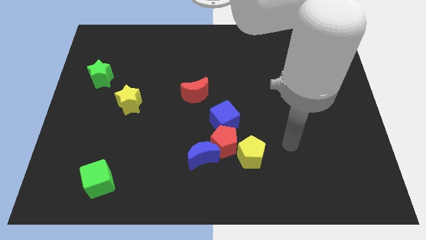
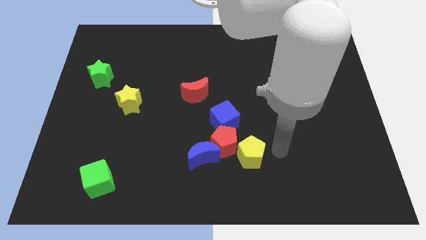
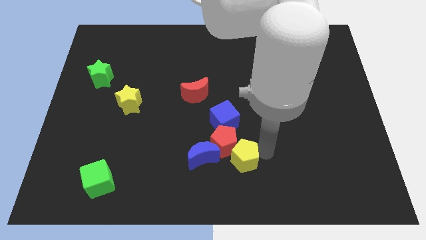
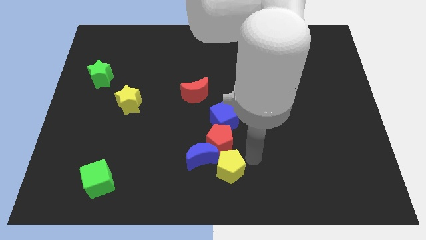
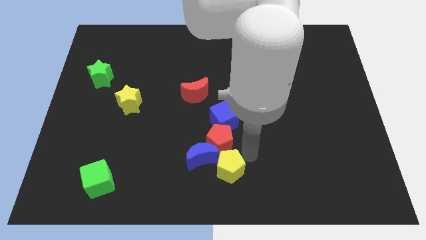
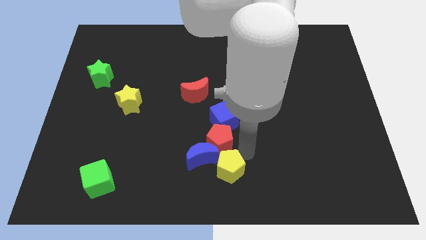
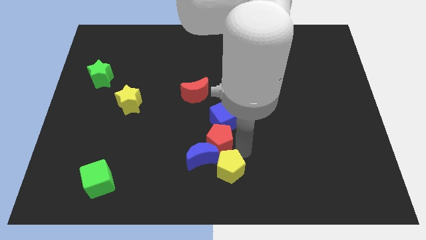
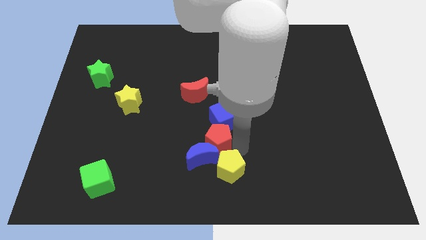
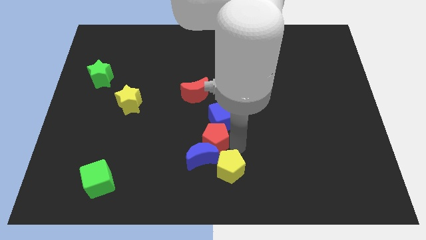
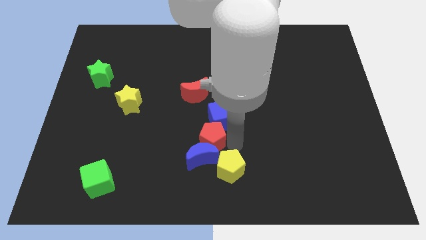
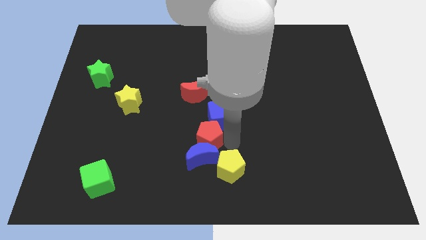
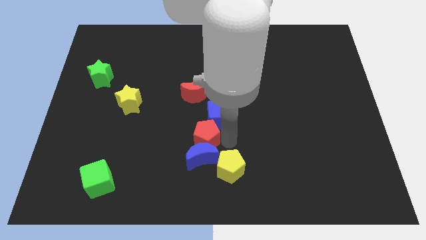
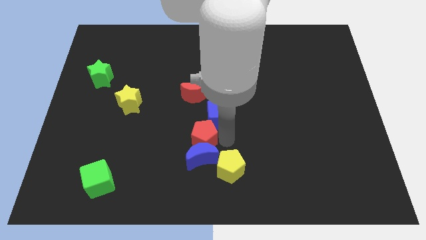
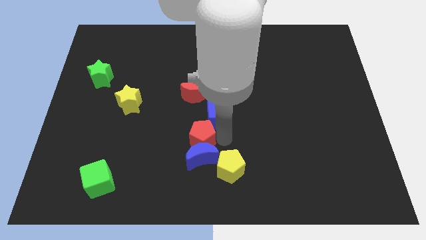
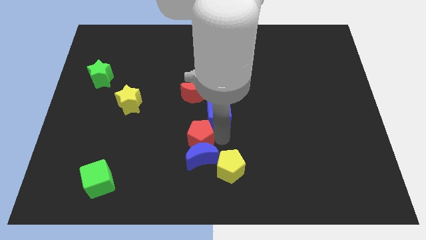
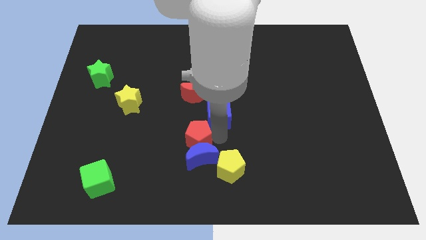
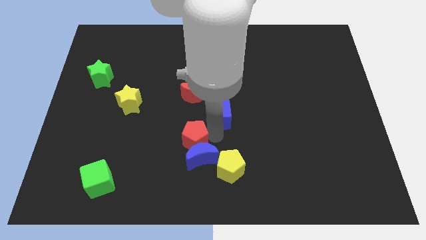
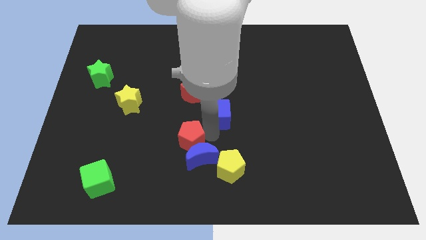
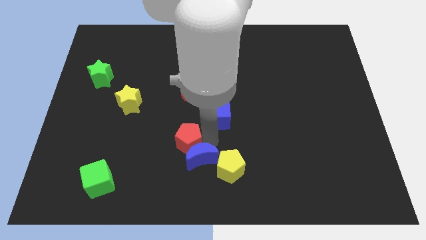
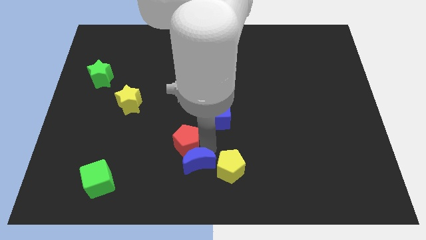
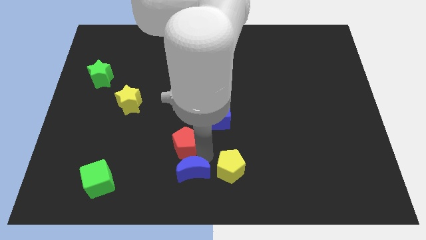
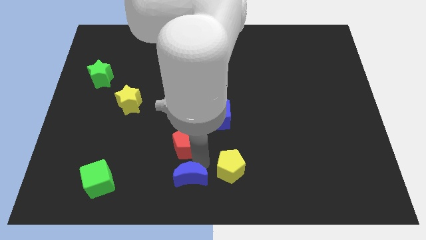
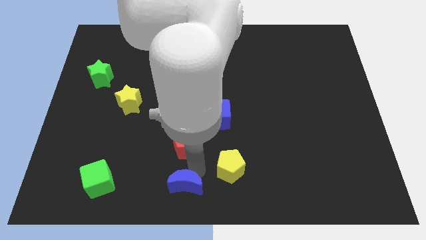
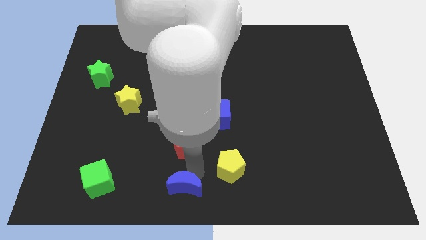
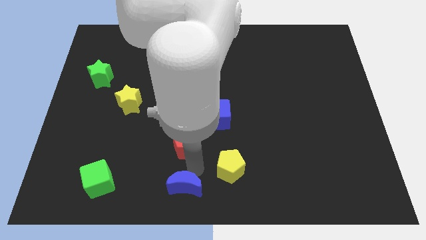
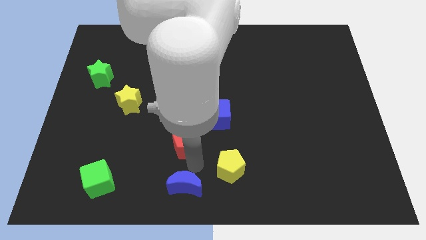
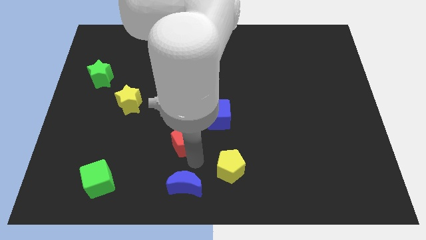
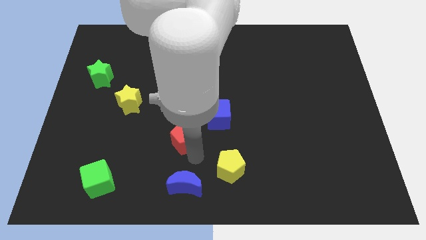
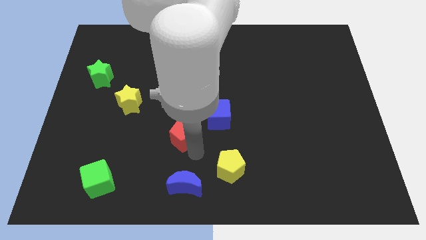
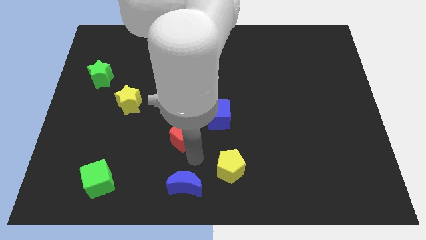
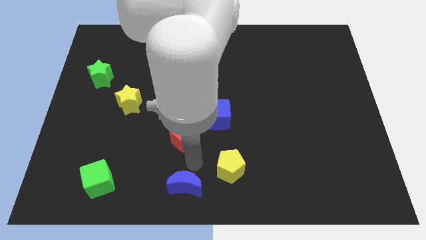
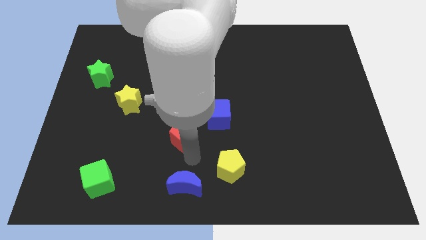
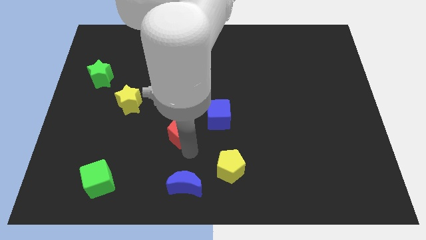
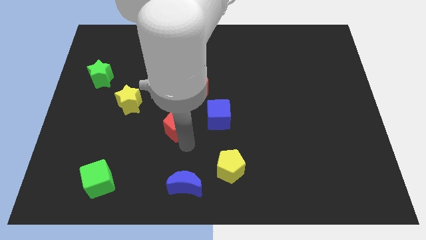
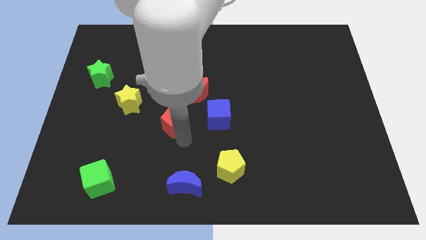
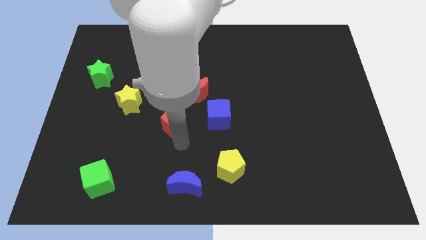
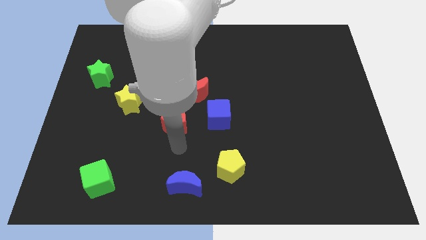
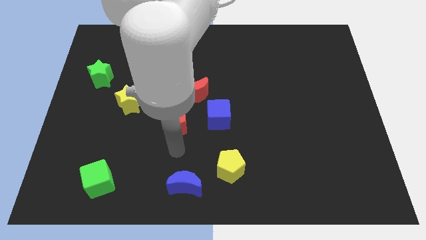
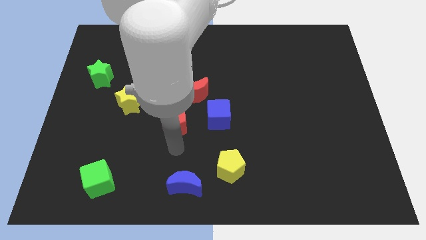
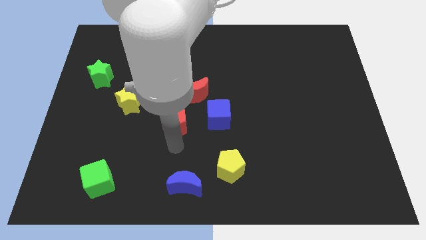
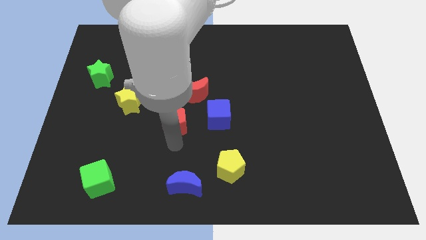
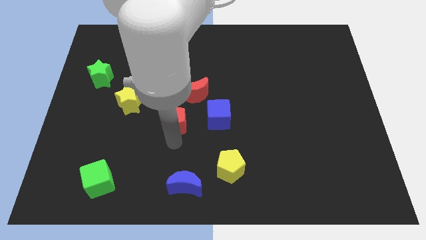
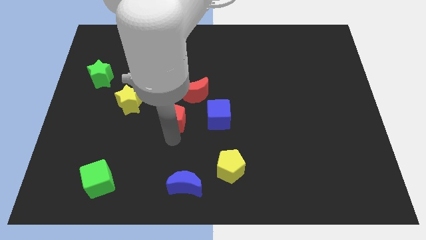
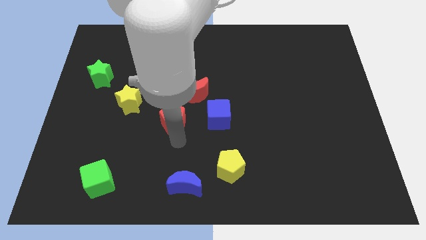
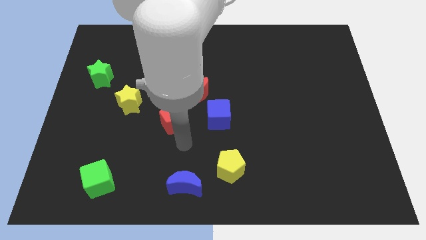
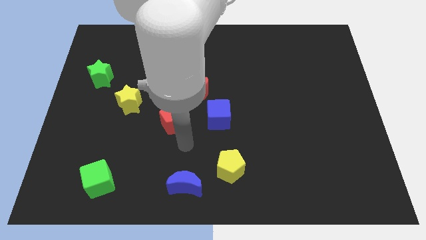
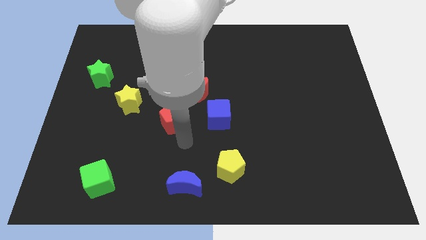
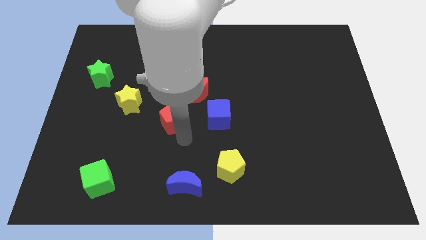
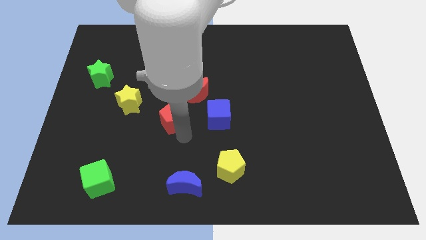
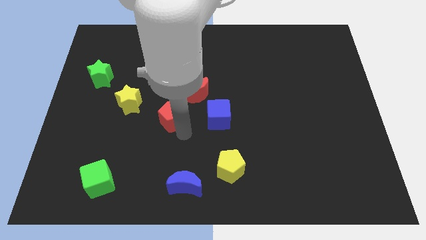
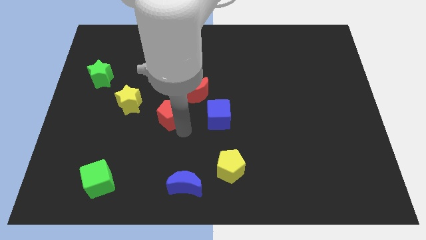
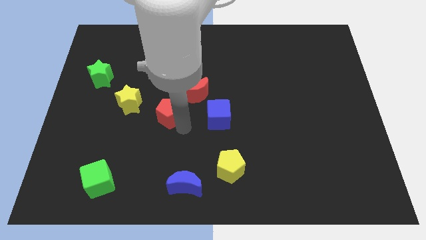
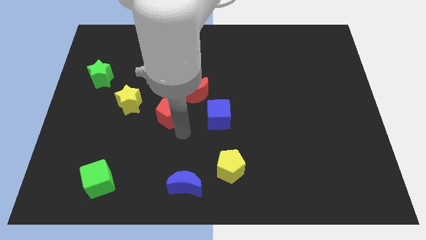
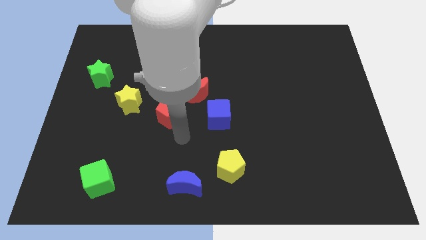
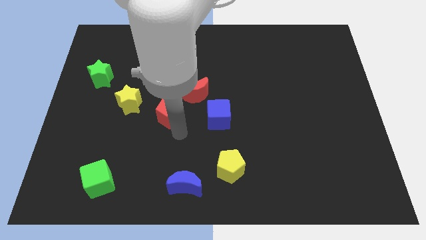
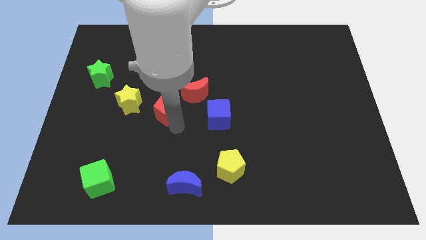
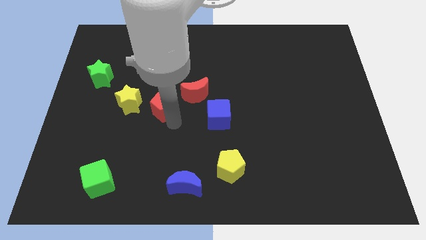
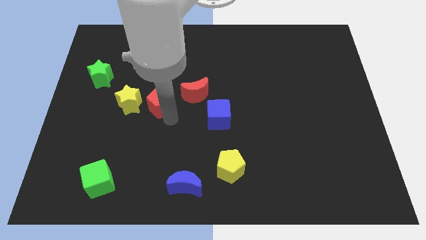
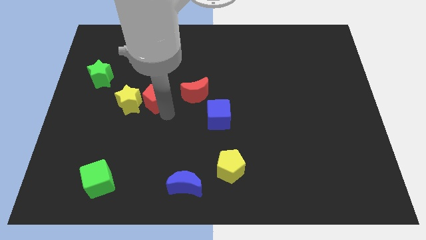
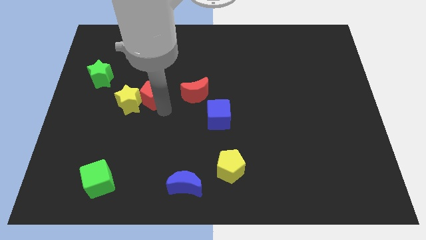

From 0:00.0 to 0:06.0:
push the red pentagon upwards and then left

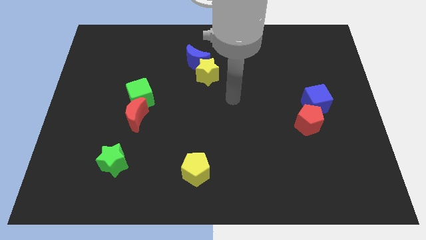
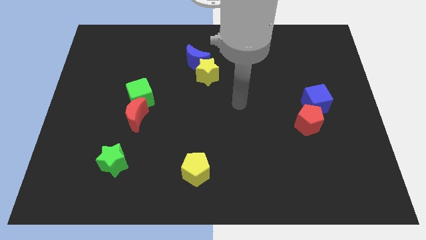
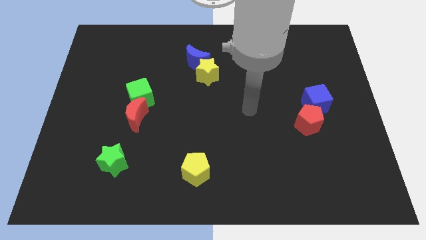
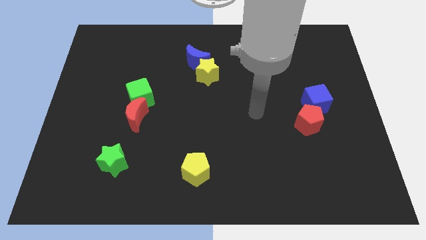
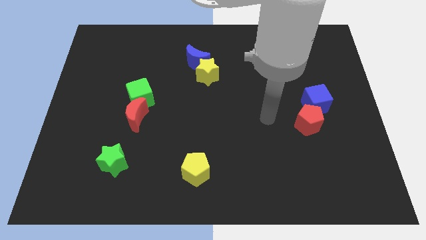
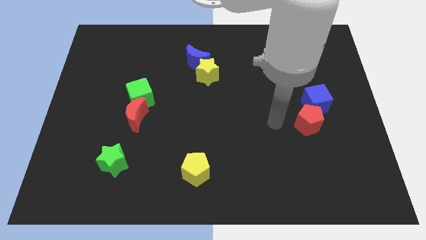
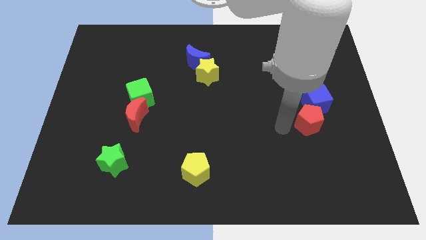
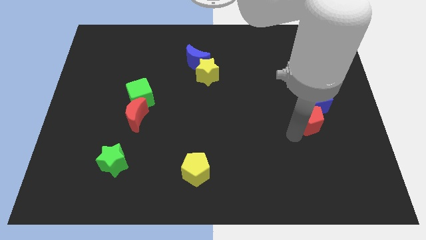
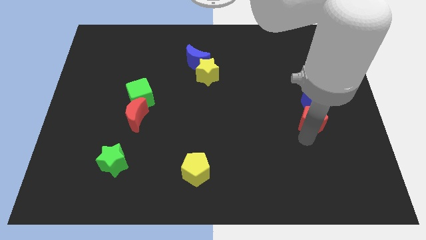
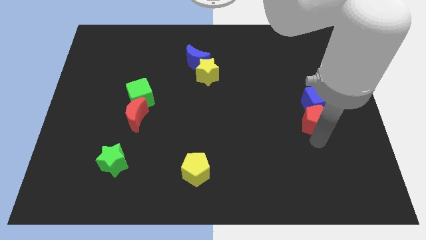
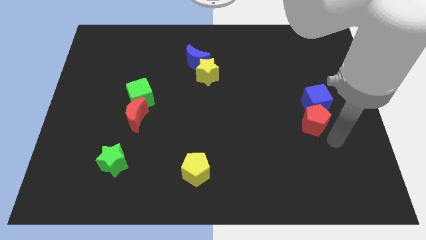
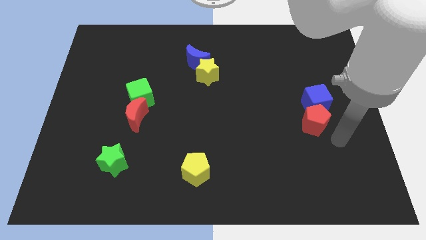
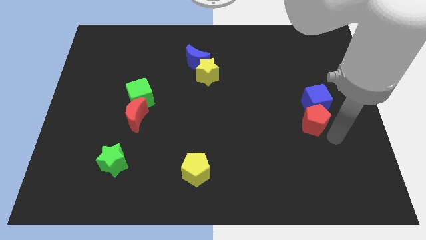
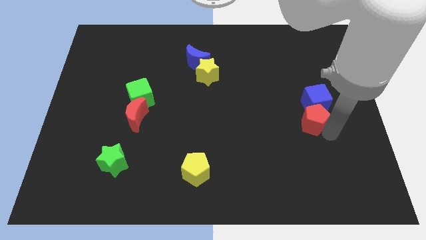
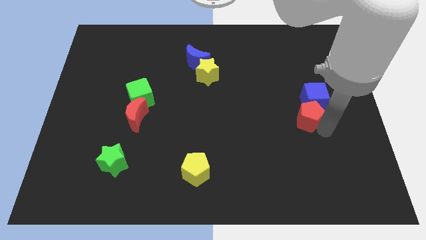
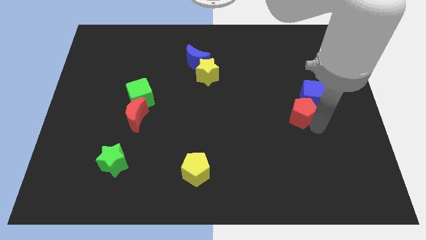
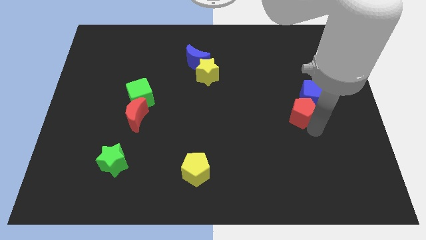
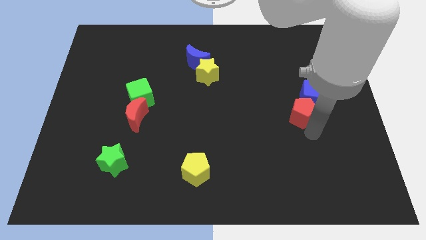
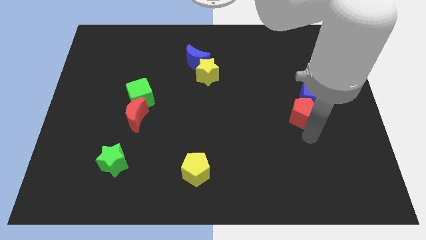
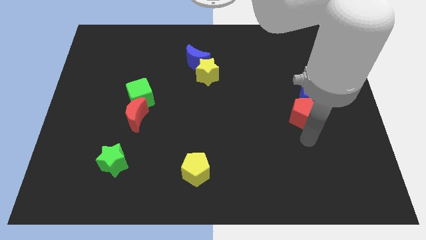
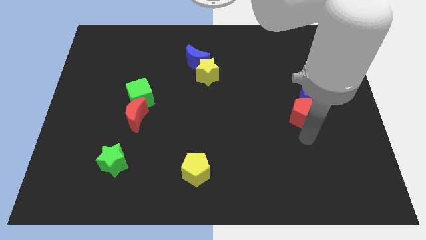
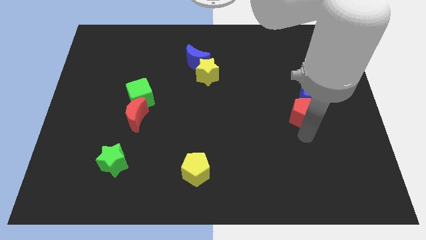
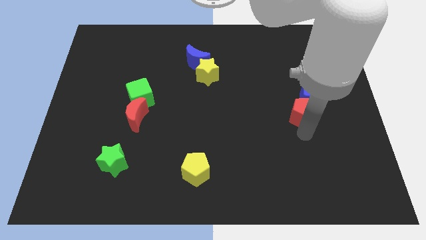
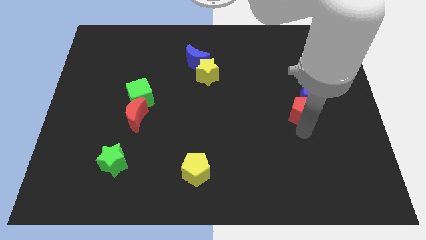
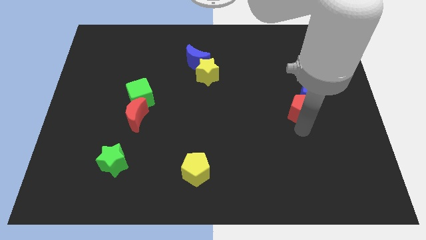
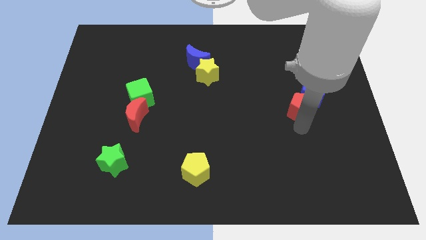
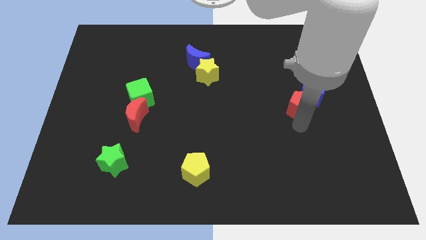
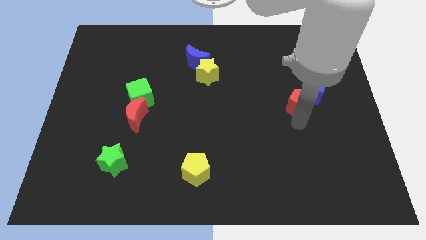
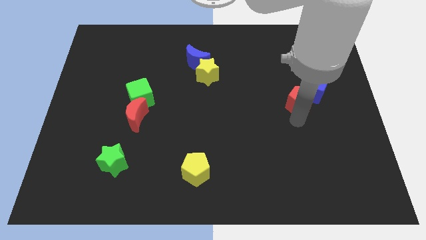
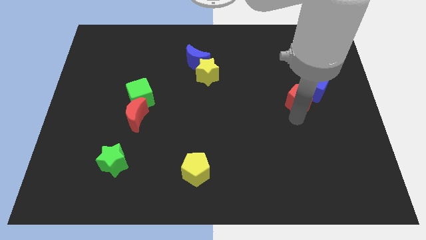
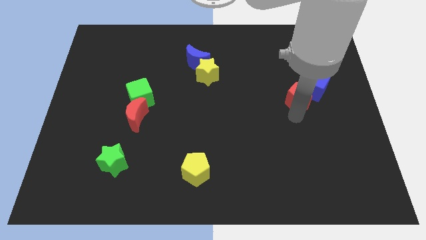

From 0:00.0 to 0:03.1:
slightly slide the red pentagon up
